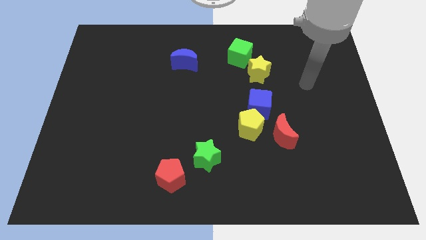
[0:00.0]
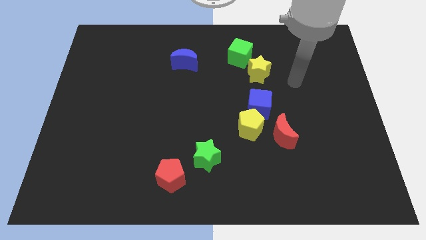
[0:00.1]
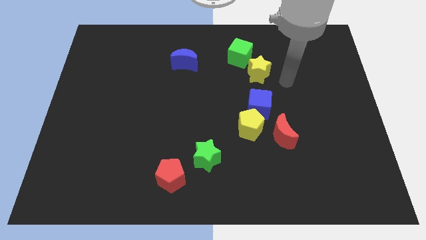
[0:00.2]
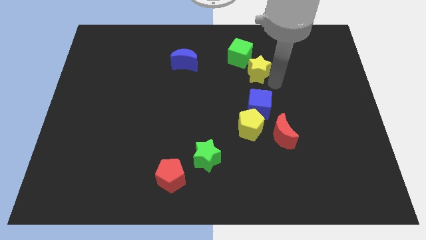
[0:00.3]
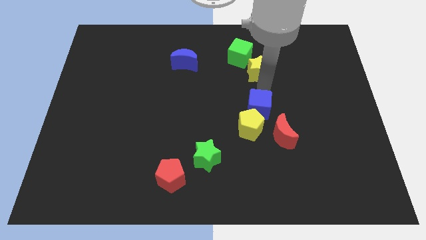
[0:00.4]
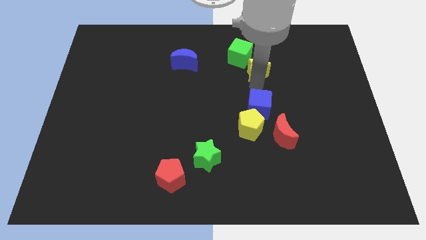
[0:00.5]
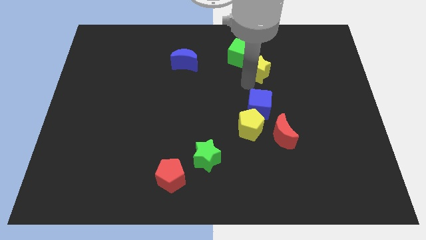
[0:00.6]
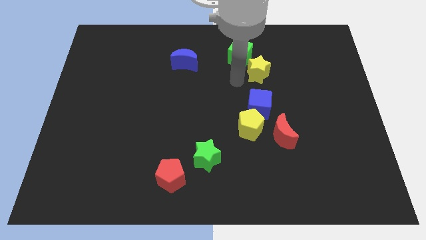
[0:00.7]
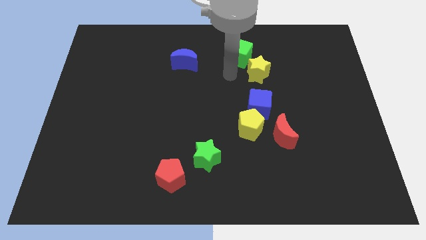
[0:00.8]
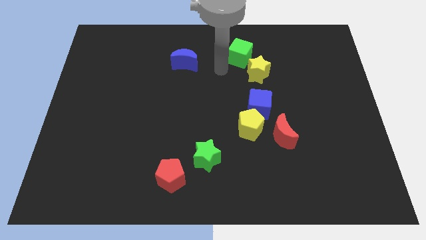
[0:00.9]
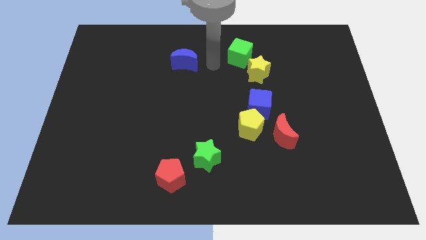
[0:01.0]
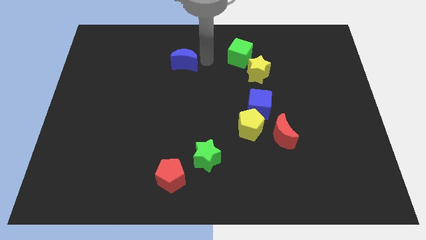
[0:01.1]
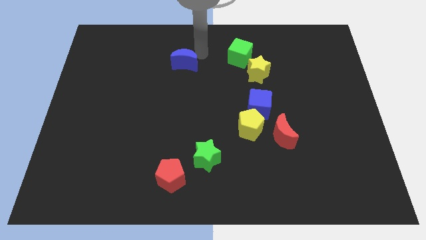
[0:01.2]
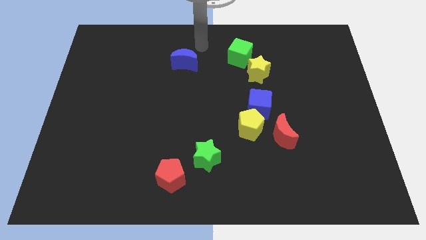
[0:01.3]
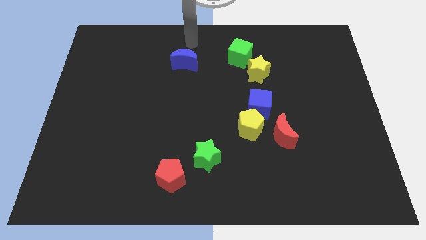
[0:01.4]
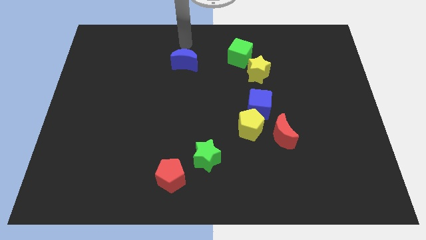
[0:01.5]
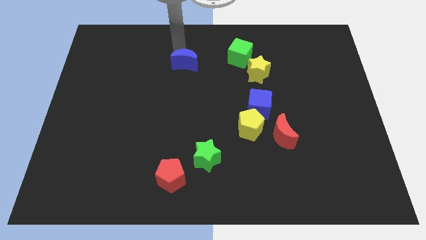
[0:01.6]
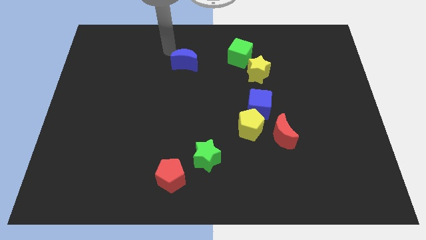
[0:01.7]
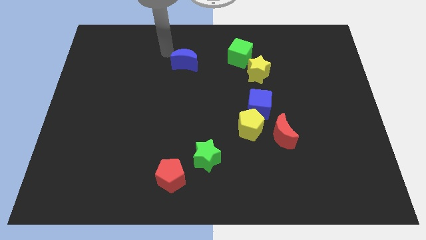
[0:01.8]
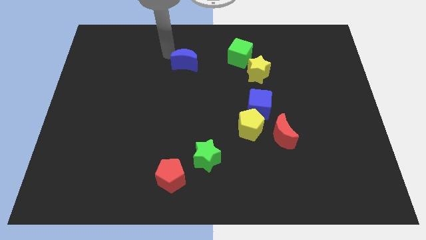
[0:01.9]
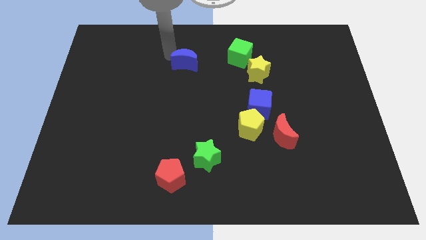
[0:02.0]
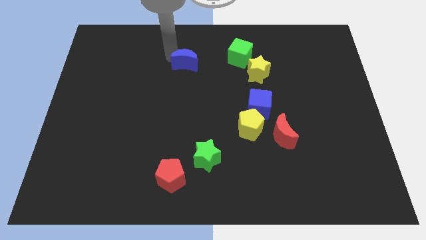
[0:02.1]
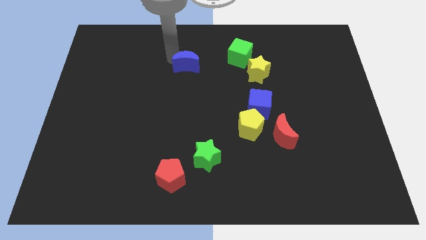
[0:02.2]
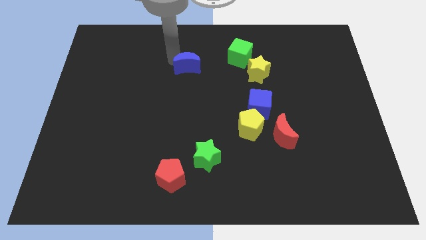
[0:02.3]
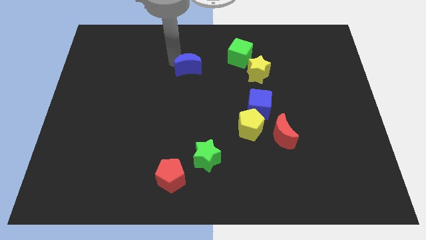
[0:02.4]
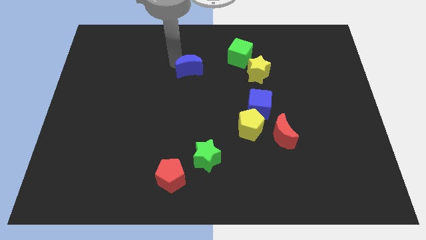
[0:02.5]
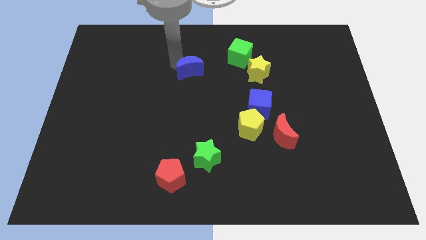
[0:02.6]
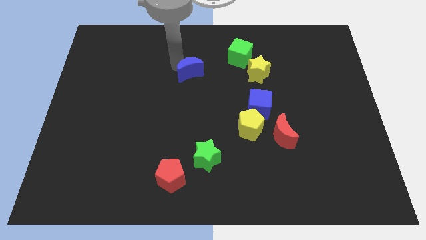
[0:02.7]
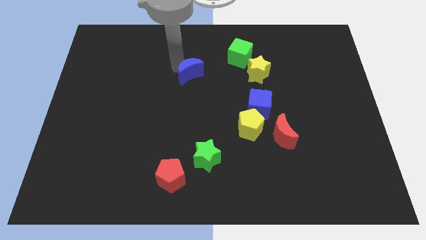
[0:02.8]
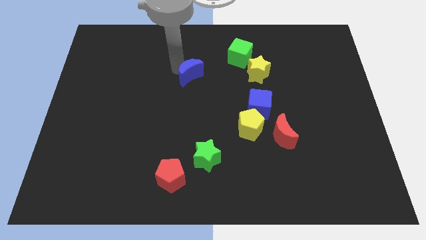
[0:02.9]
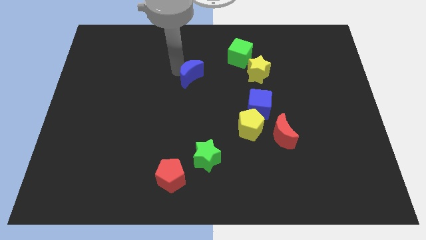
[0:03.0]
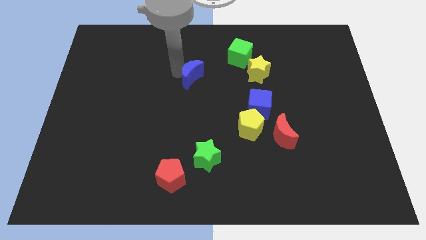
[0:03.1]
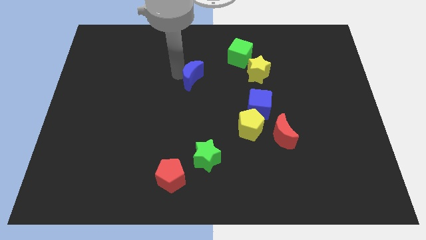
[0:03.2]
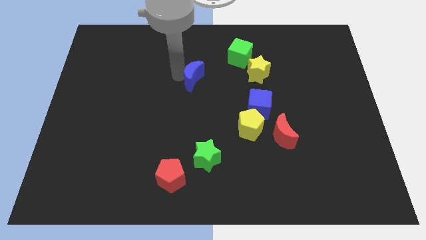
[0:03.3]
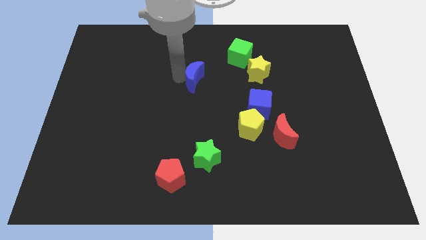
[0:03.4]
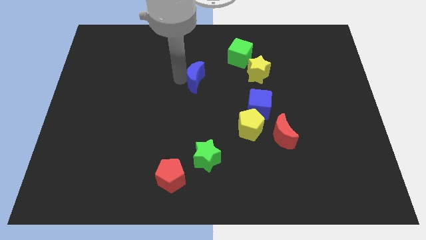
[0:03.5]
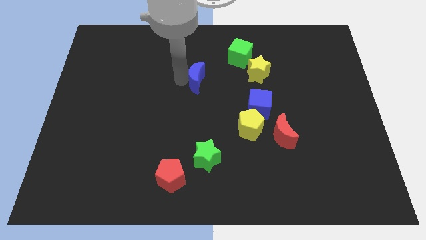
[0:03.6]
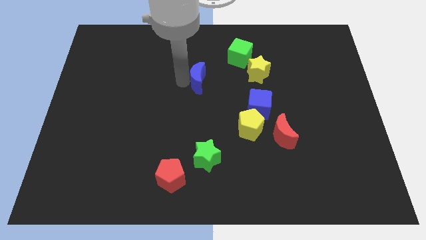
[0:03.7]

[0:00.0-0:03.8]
slide the blue moon downwards and right diagonally a little bit

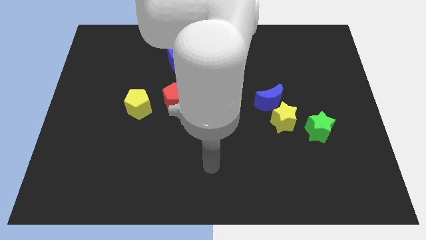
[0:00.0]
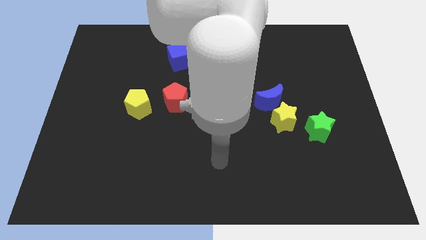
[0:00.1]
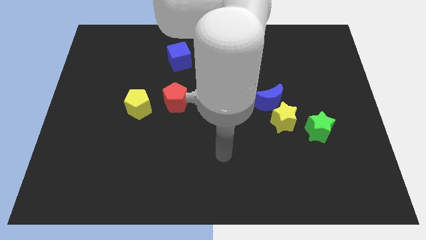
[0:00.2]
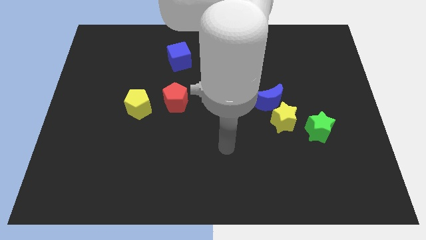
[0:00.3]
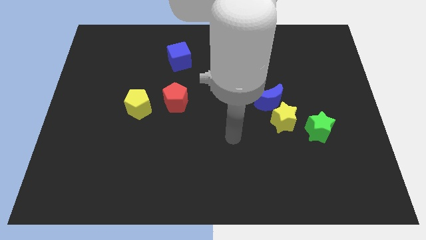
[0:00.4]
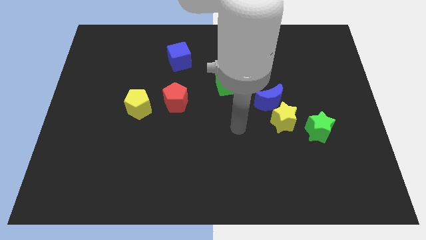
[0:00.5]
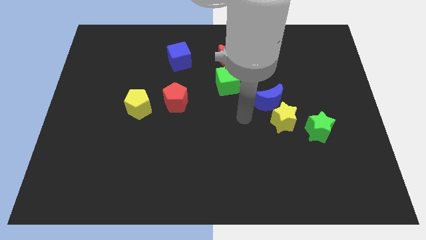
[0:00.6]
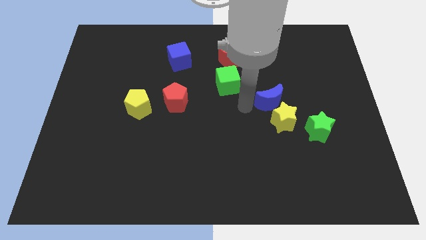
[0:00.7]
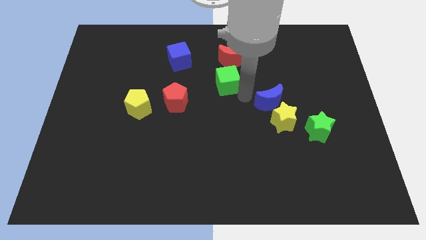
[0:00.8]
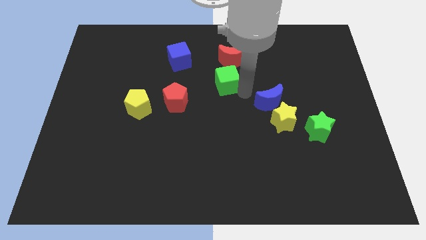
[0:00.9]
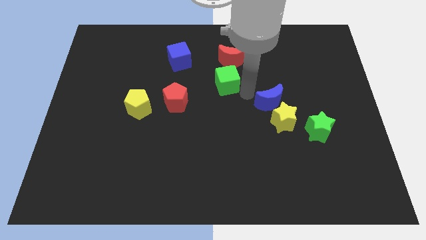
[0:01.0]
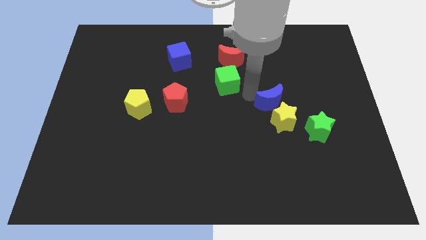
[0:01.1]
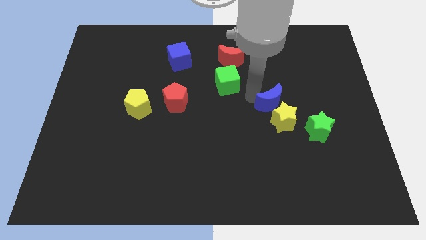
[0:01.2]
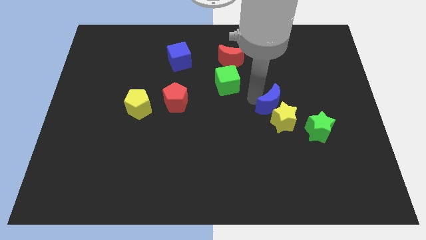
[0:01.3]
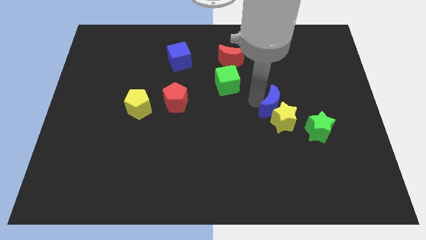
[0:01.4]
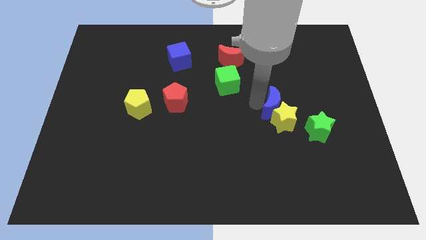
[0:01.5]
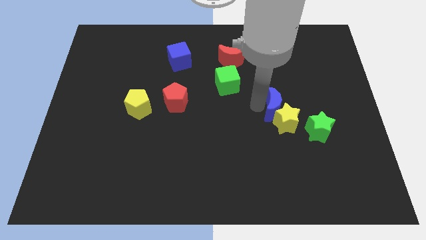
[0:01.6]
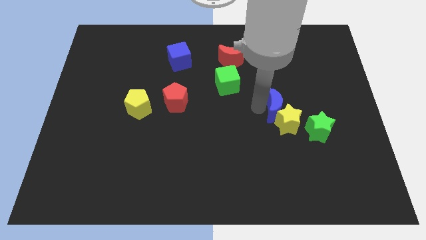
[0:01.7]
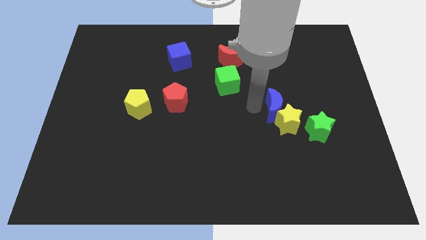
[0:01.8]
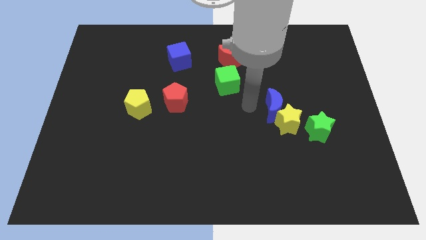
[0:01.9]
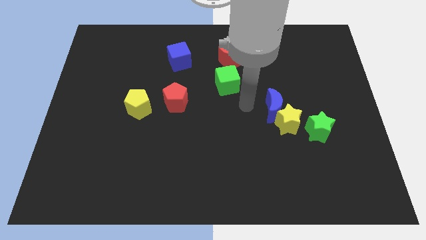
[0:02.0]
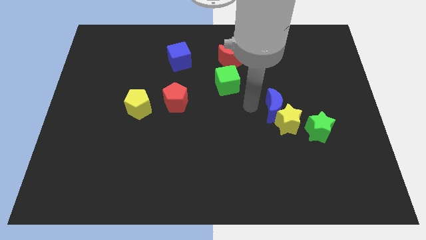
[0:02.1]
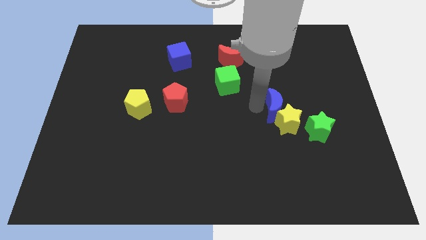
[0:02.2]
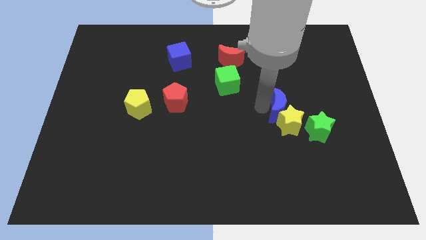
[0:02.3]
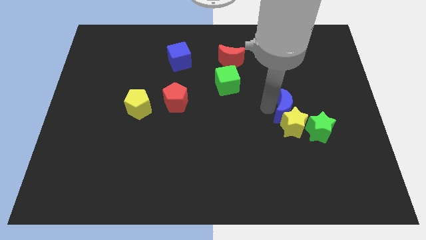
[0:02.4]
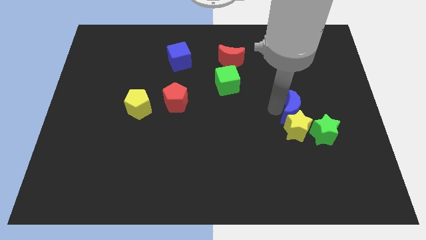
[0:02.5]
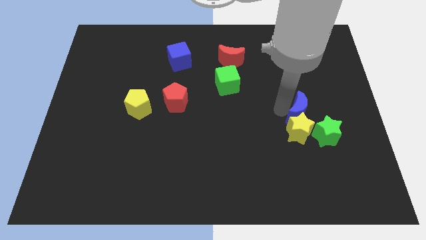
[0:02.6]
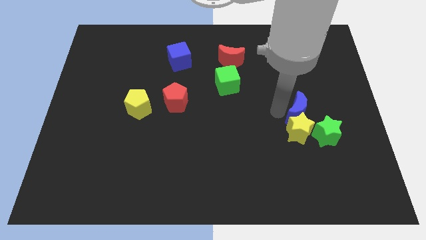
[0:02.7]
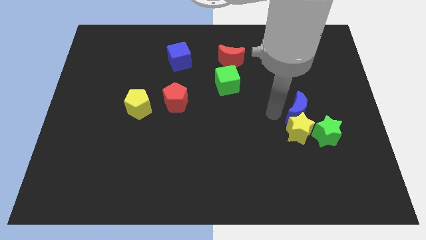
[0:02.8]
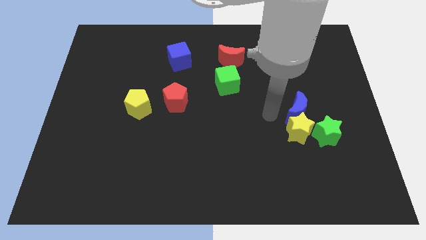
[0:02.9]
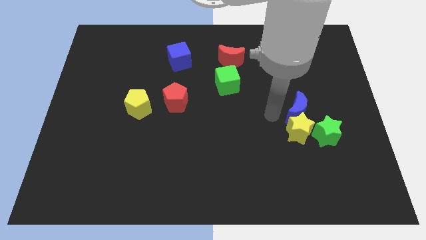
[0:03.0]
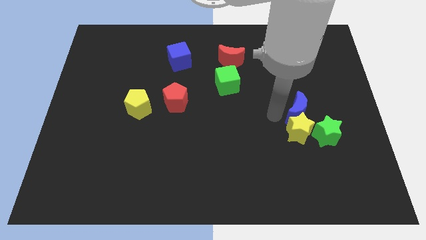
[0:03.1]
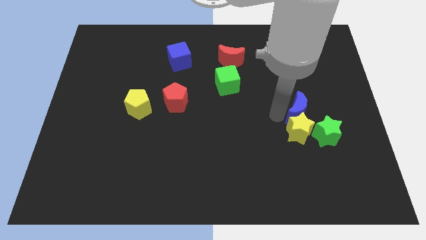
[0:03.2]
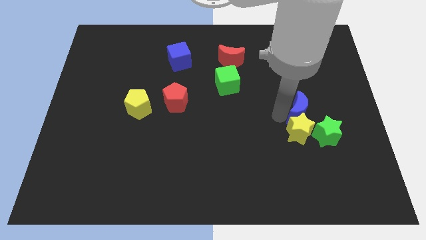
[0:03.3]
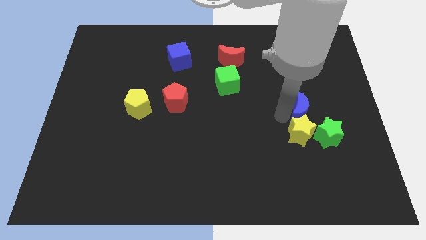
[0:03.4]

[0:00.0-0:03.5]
slightly push the blue moon down and right

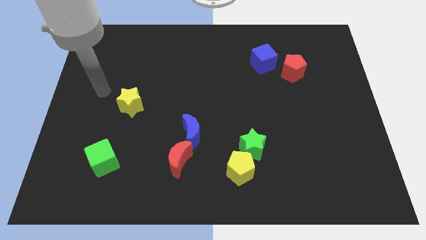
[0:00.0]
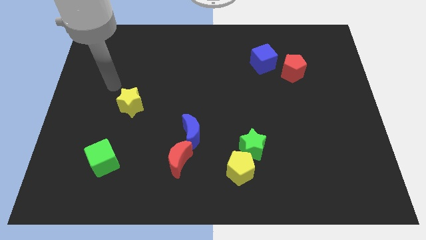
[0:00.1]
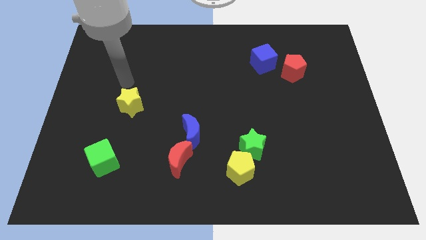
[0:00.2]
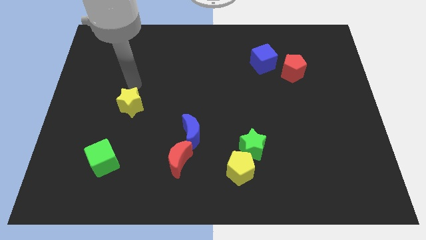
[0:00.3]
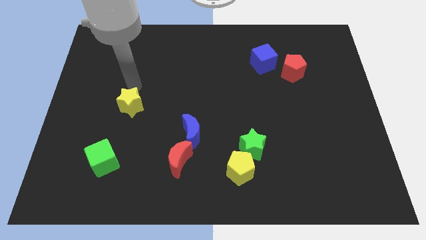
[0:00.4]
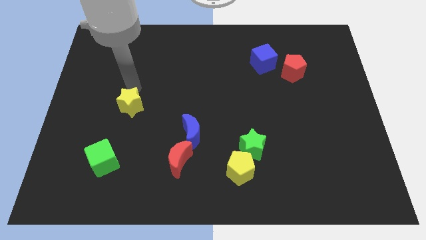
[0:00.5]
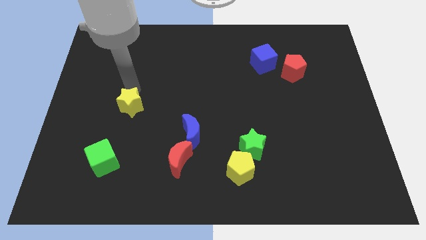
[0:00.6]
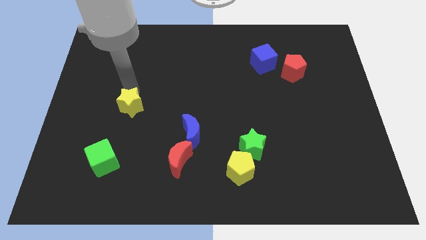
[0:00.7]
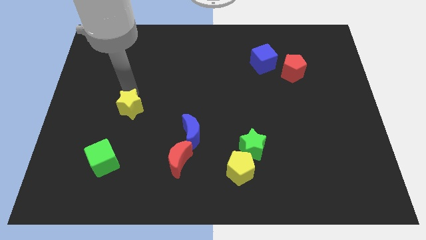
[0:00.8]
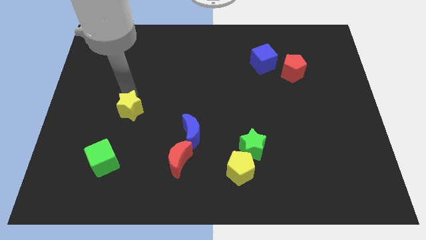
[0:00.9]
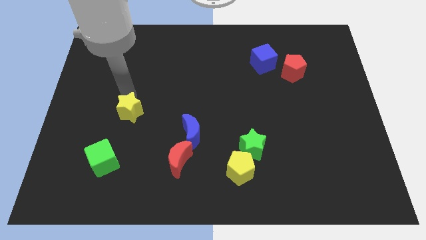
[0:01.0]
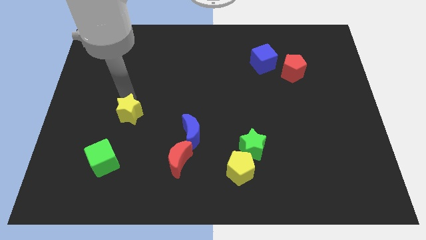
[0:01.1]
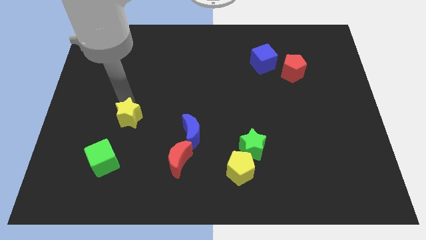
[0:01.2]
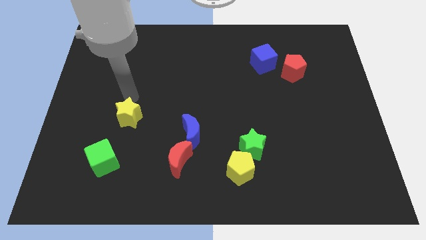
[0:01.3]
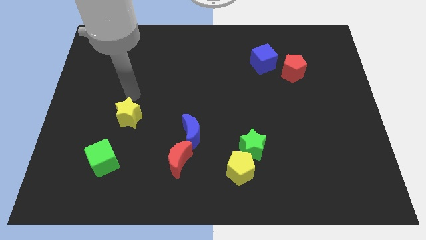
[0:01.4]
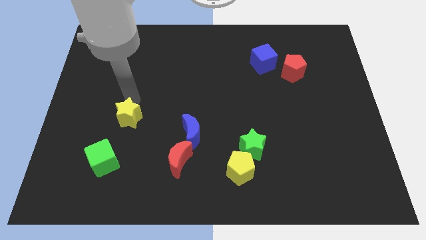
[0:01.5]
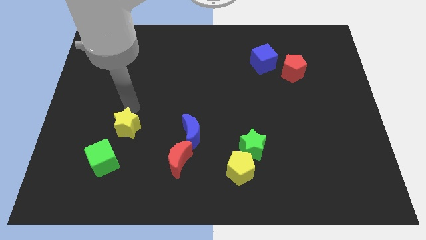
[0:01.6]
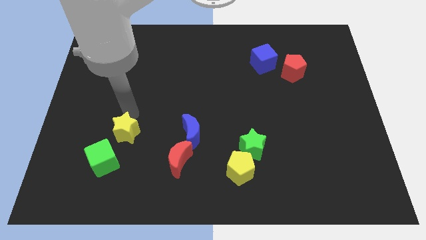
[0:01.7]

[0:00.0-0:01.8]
push the yellow star a little bit downwards
